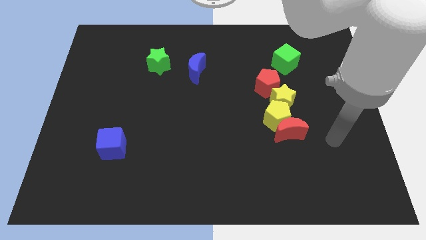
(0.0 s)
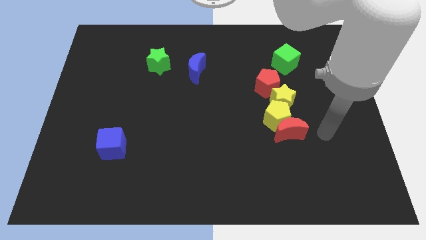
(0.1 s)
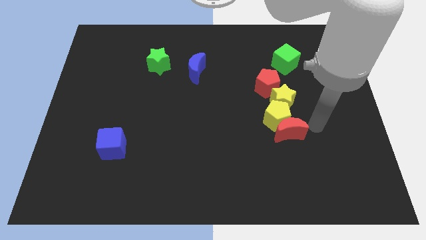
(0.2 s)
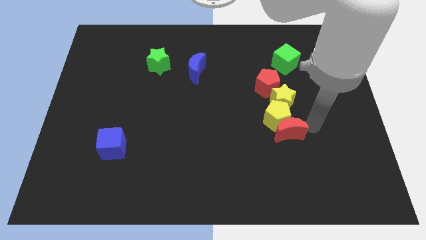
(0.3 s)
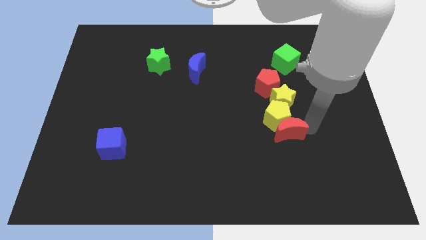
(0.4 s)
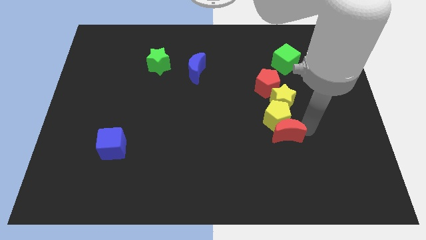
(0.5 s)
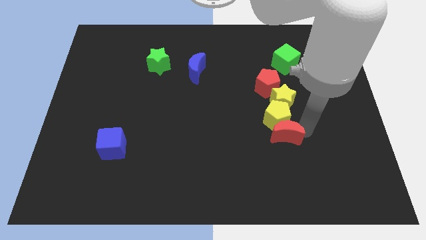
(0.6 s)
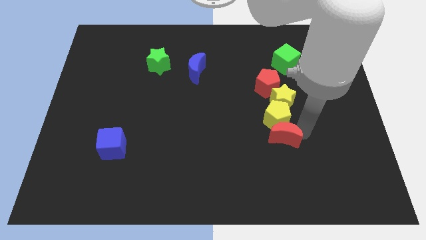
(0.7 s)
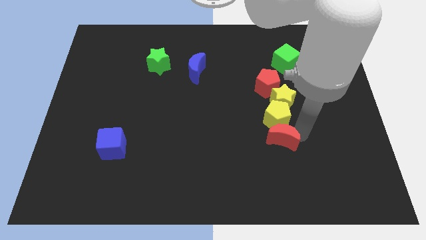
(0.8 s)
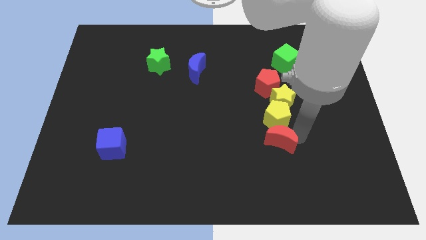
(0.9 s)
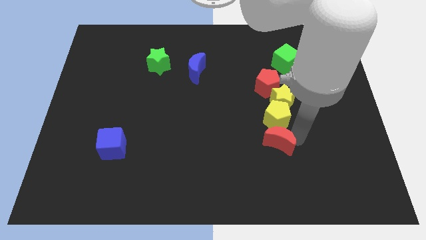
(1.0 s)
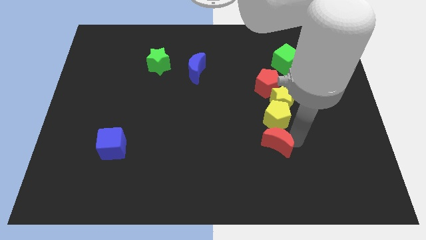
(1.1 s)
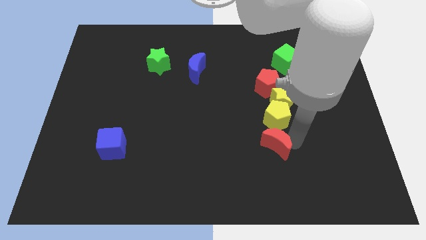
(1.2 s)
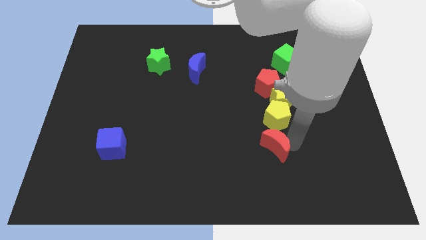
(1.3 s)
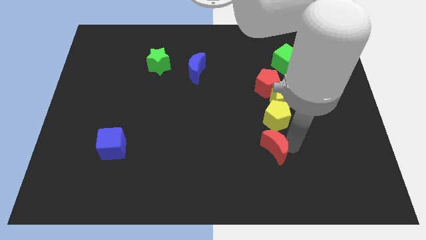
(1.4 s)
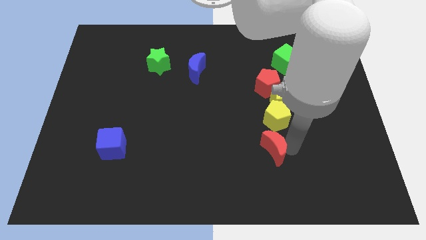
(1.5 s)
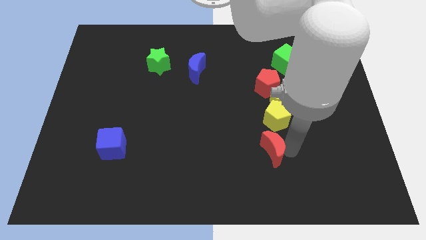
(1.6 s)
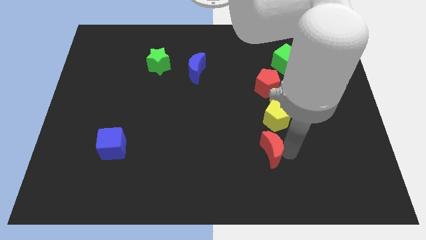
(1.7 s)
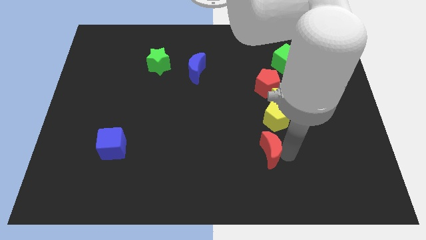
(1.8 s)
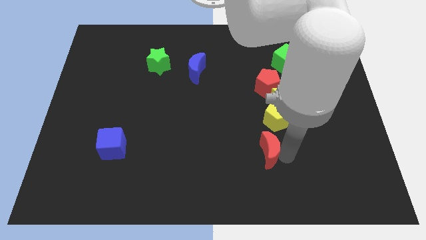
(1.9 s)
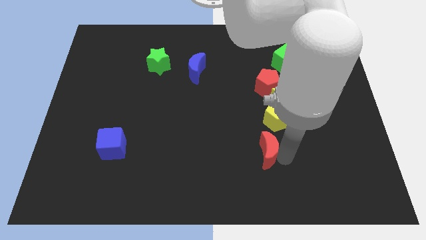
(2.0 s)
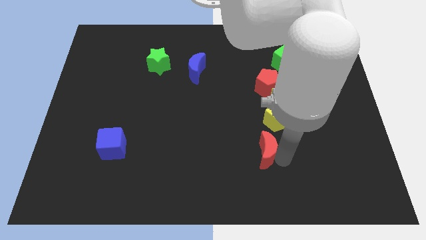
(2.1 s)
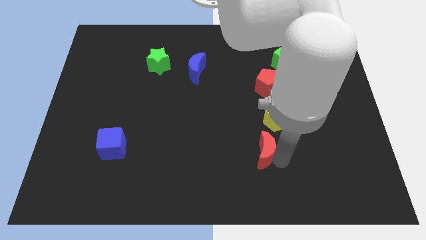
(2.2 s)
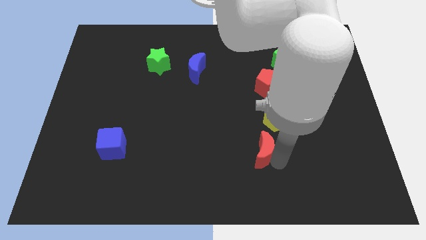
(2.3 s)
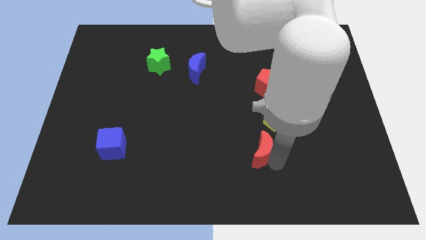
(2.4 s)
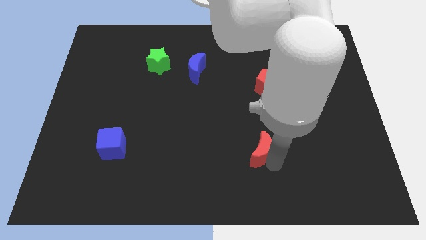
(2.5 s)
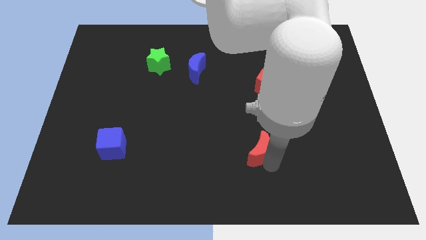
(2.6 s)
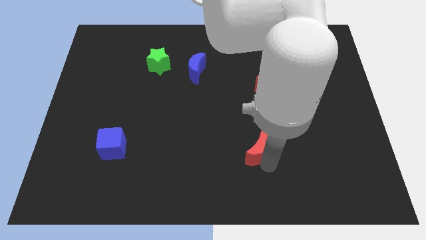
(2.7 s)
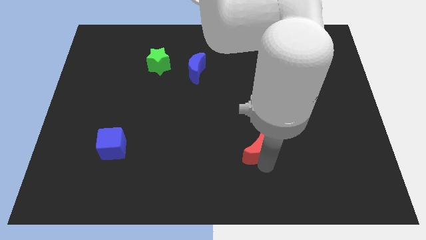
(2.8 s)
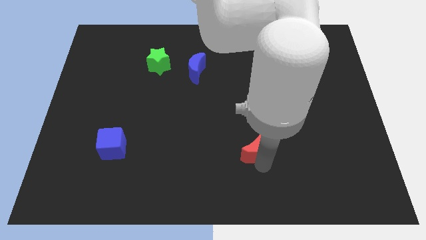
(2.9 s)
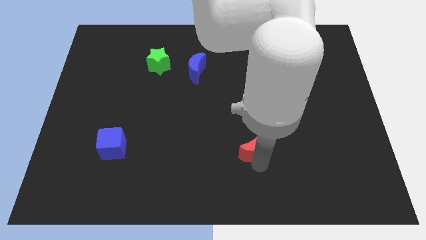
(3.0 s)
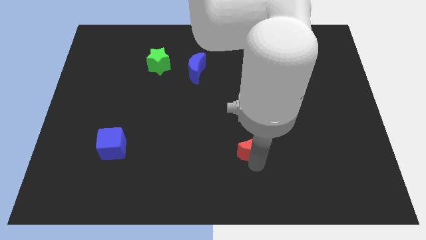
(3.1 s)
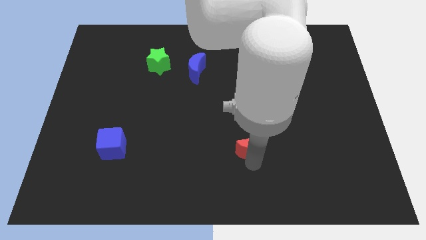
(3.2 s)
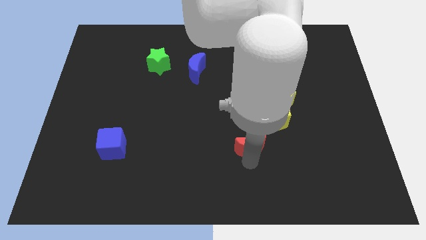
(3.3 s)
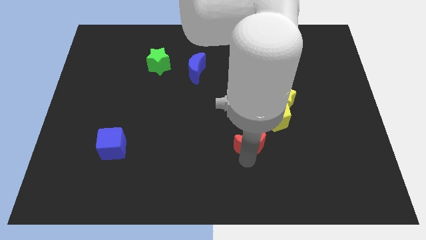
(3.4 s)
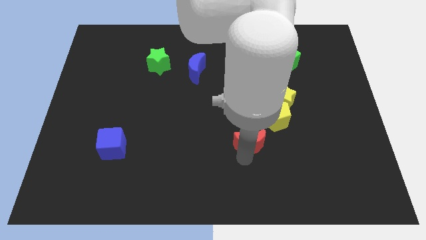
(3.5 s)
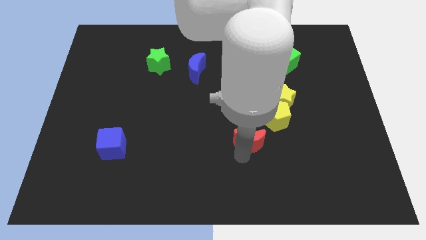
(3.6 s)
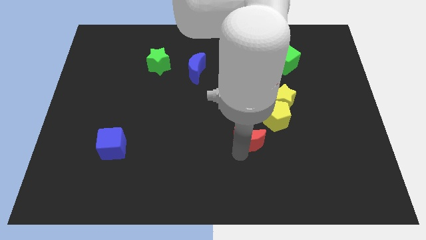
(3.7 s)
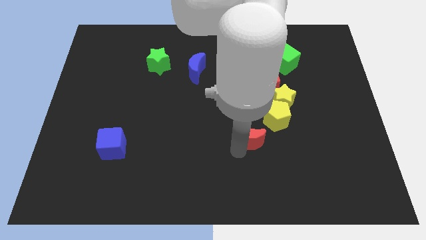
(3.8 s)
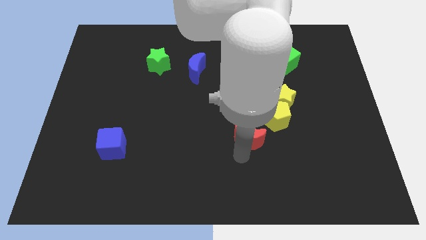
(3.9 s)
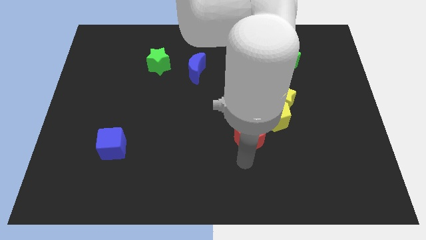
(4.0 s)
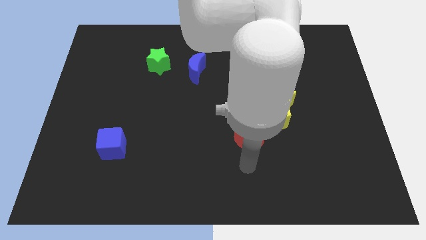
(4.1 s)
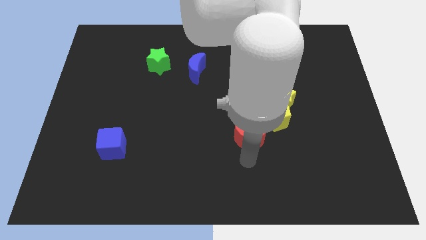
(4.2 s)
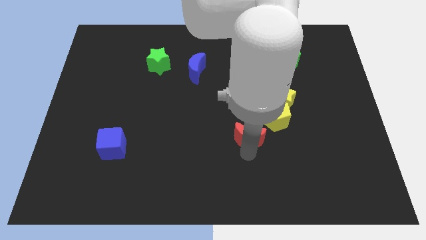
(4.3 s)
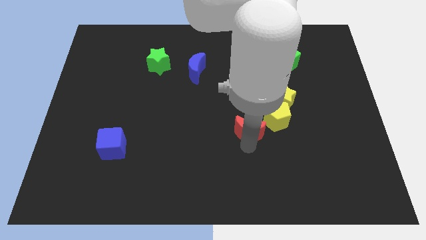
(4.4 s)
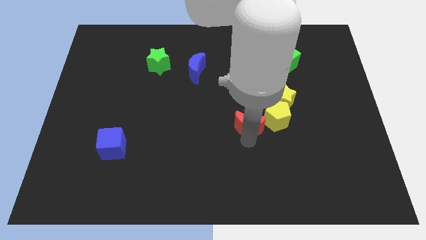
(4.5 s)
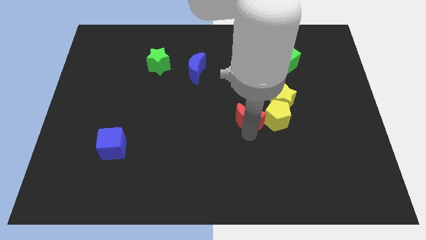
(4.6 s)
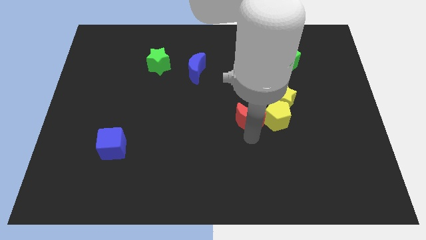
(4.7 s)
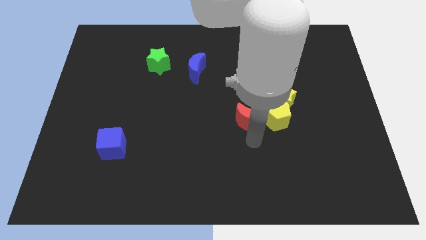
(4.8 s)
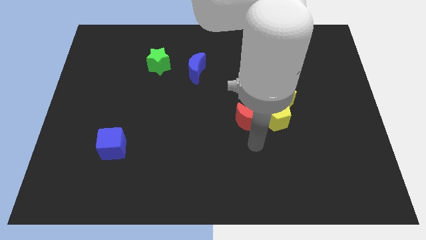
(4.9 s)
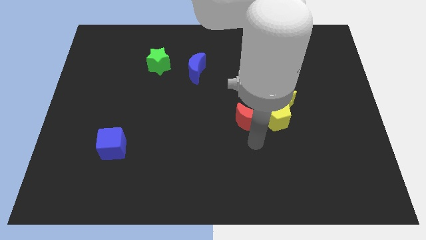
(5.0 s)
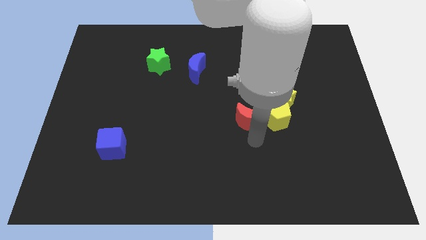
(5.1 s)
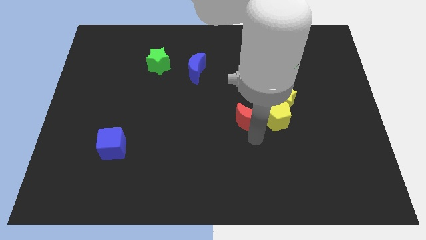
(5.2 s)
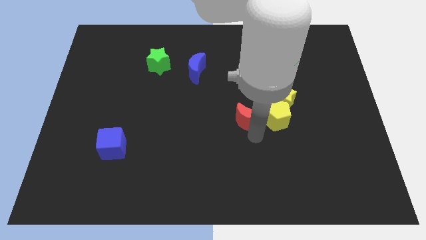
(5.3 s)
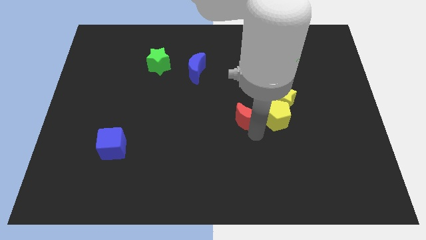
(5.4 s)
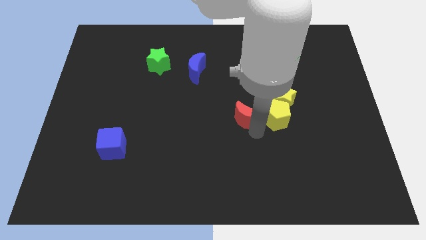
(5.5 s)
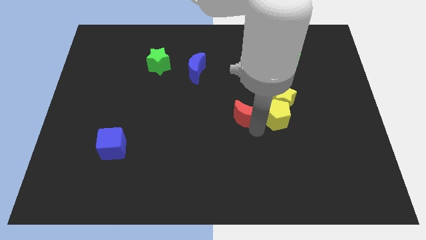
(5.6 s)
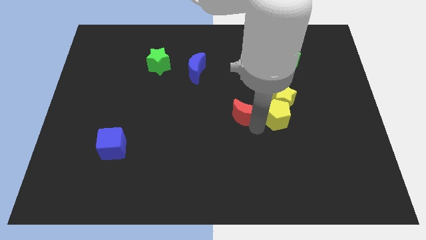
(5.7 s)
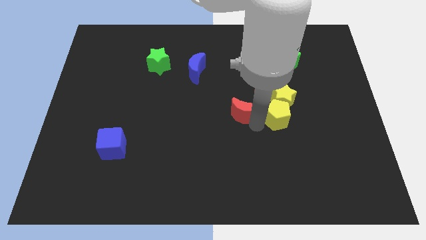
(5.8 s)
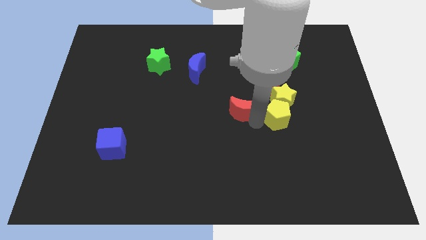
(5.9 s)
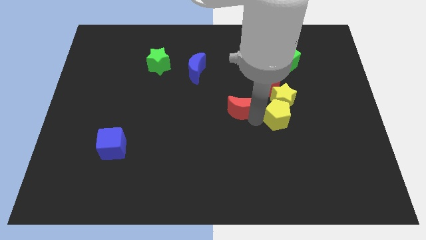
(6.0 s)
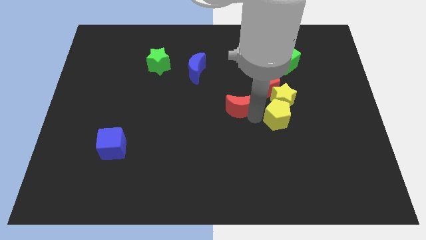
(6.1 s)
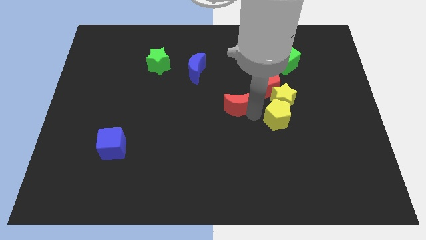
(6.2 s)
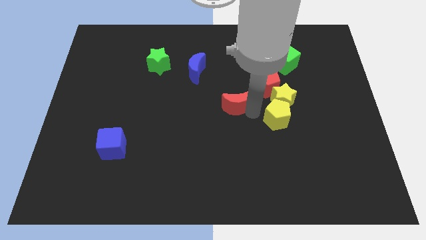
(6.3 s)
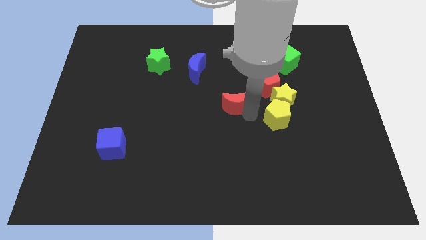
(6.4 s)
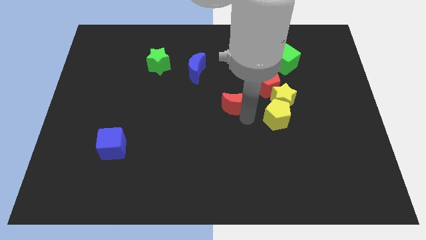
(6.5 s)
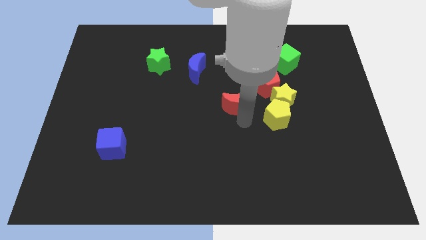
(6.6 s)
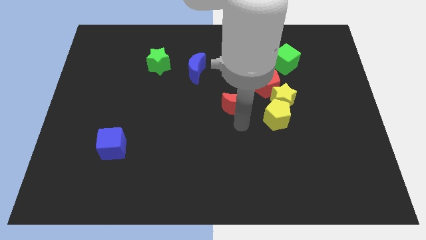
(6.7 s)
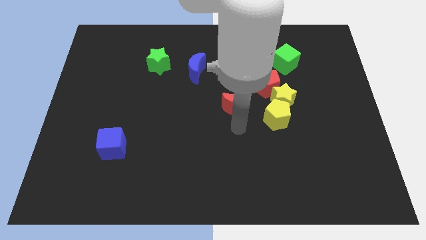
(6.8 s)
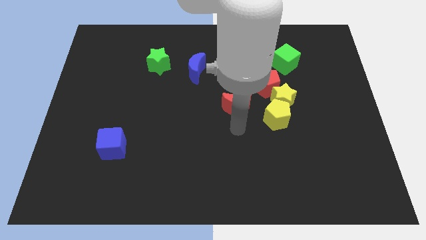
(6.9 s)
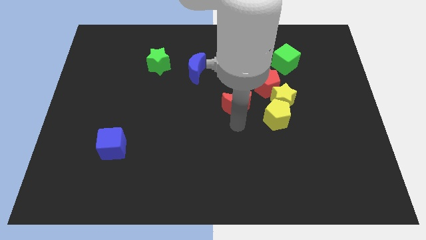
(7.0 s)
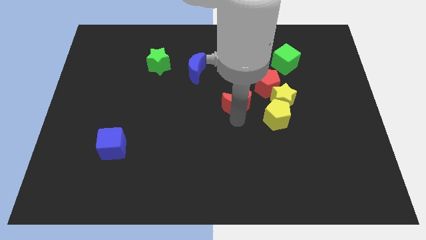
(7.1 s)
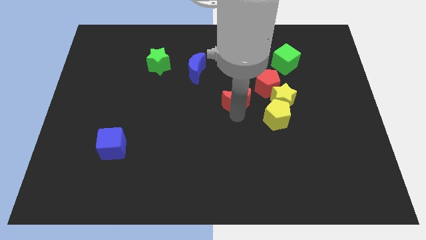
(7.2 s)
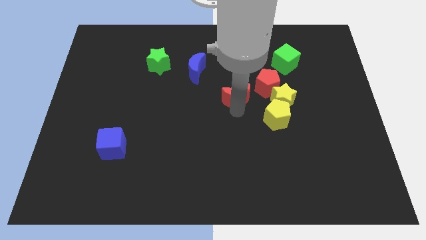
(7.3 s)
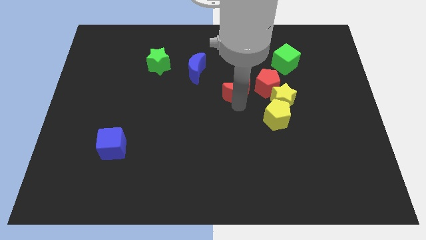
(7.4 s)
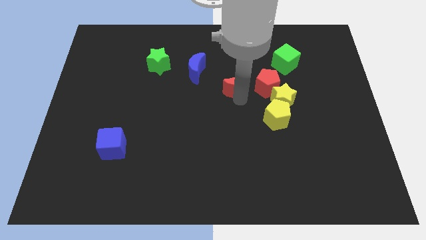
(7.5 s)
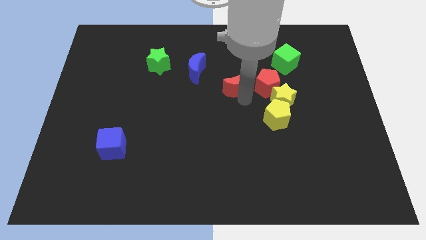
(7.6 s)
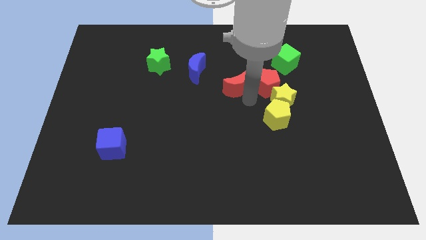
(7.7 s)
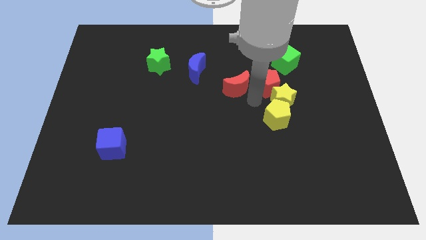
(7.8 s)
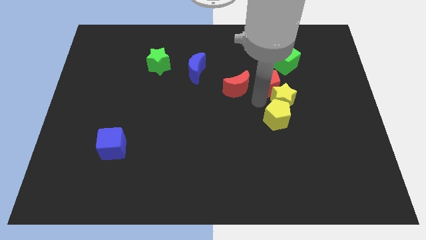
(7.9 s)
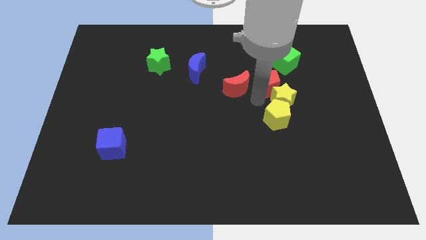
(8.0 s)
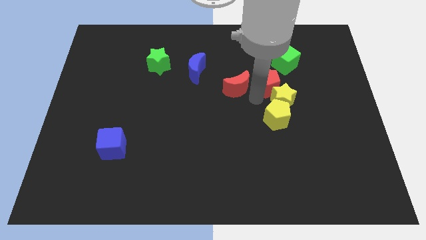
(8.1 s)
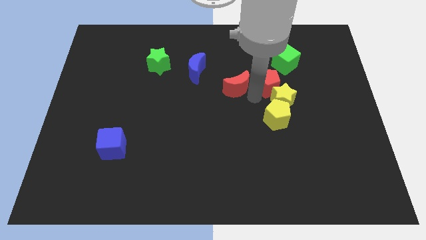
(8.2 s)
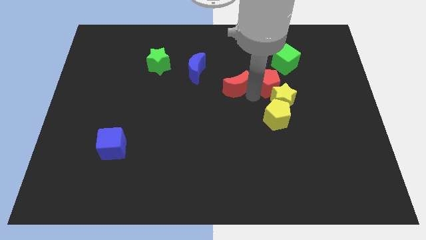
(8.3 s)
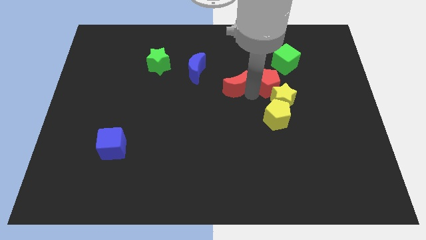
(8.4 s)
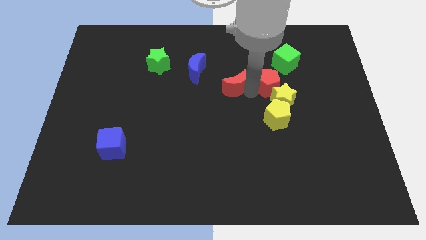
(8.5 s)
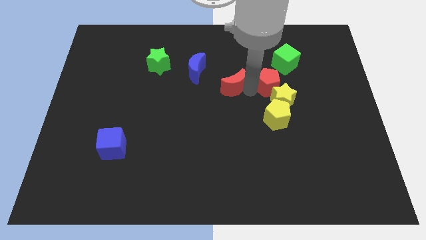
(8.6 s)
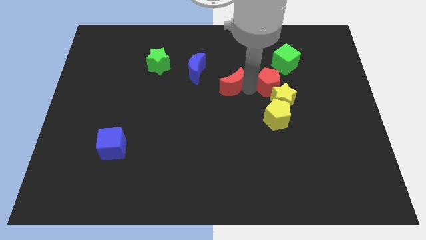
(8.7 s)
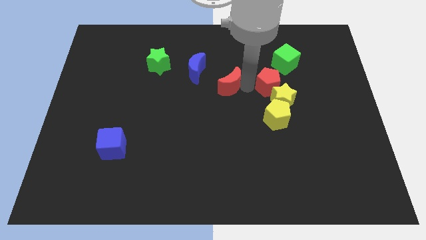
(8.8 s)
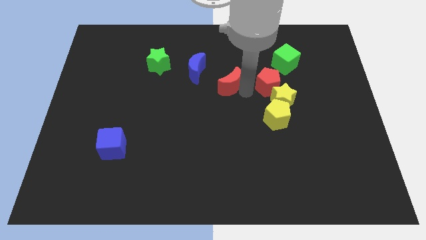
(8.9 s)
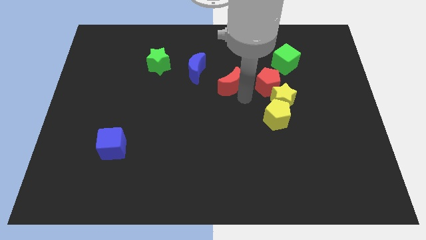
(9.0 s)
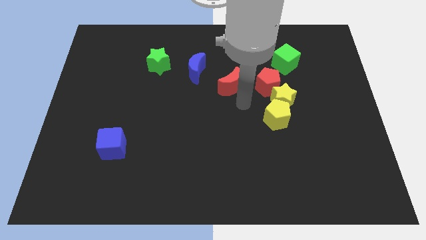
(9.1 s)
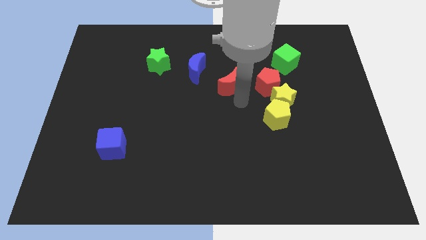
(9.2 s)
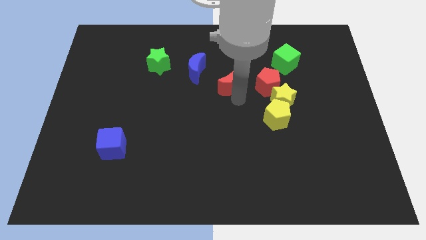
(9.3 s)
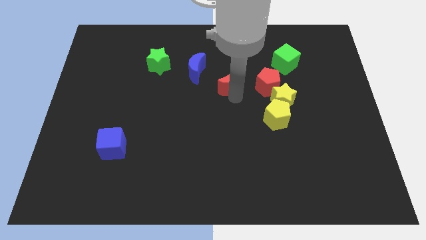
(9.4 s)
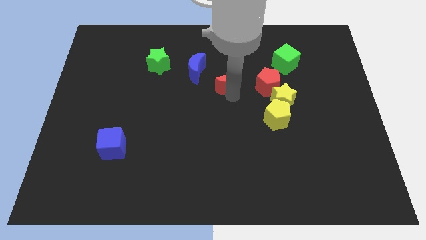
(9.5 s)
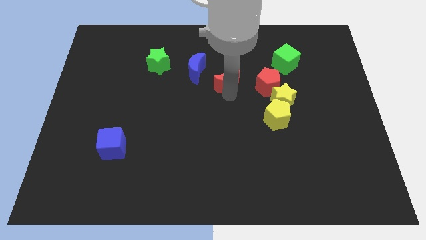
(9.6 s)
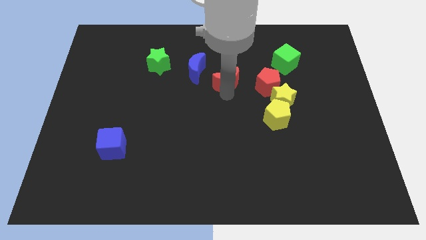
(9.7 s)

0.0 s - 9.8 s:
slide the red moon upwards and left
